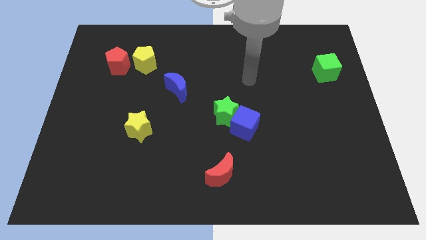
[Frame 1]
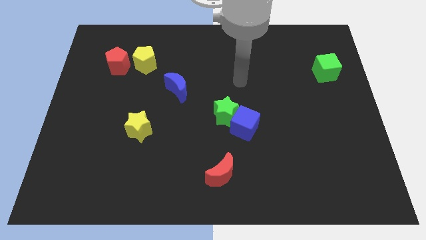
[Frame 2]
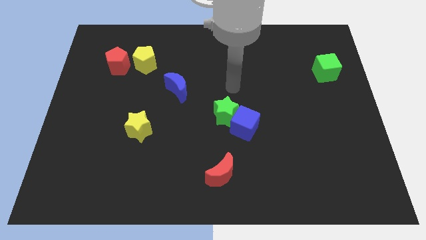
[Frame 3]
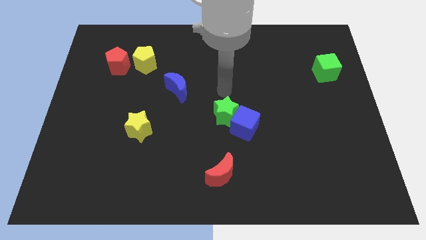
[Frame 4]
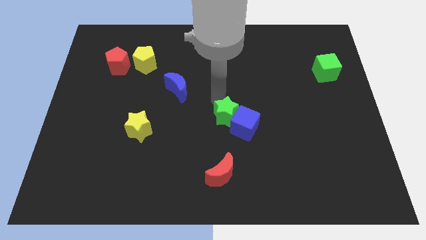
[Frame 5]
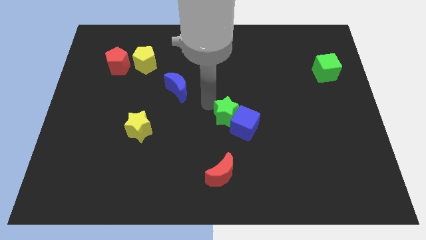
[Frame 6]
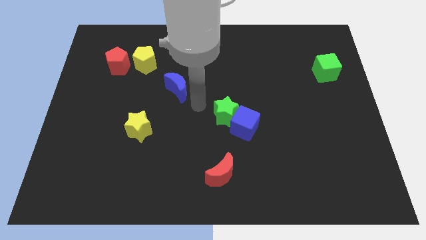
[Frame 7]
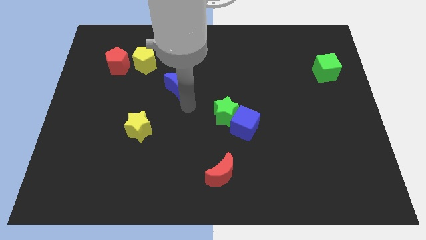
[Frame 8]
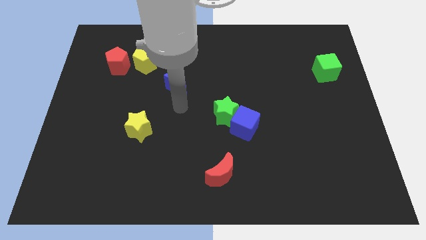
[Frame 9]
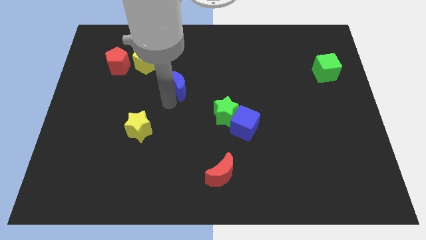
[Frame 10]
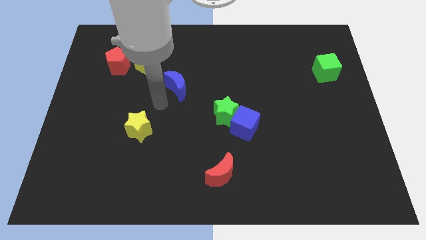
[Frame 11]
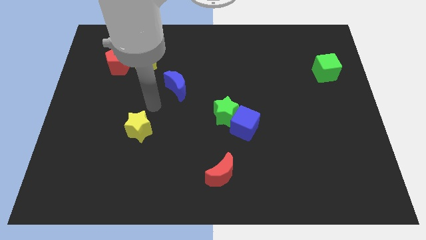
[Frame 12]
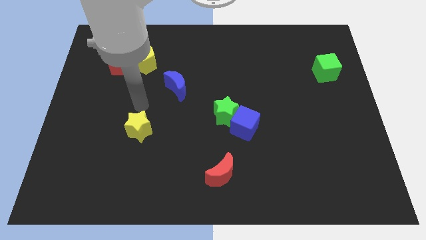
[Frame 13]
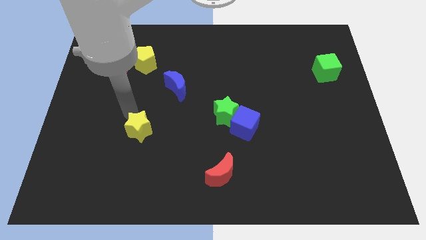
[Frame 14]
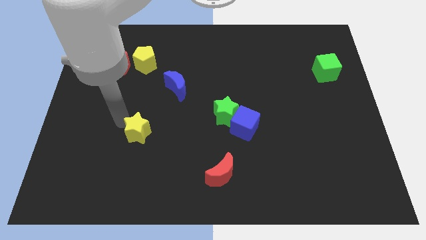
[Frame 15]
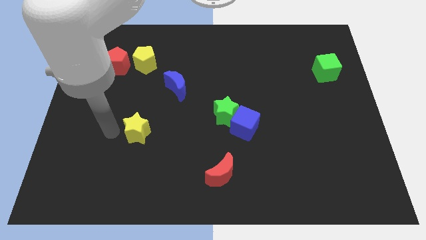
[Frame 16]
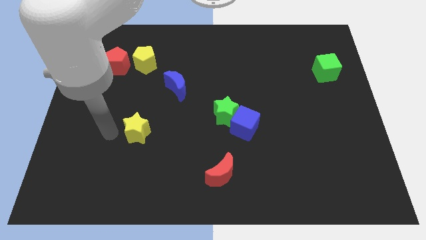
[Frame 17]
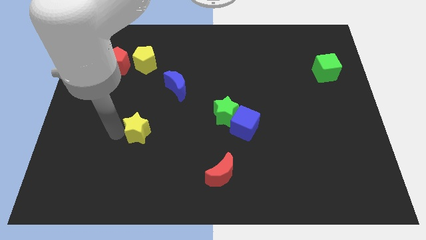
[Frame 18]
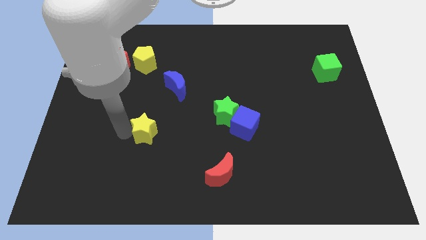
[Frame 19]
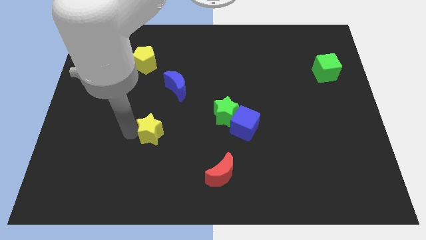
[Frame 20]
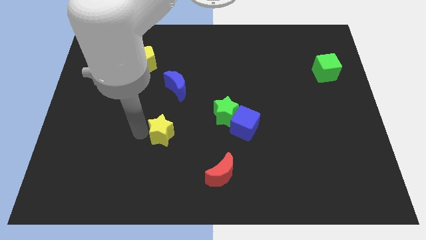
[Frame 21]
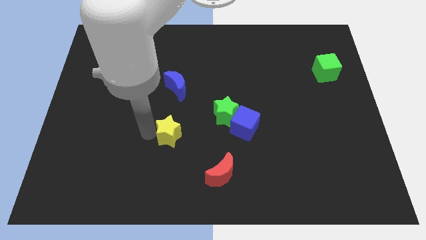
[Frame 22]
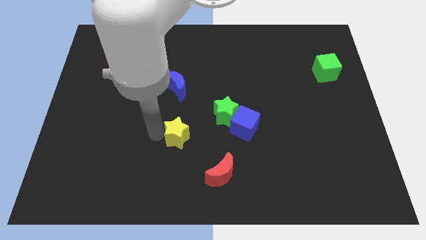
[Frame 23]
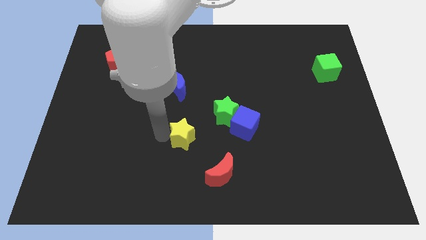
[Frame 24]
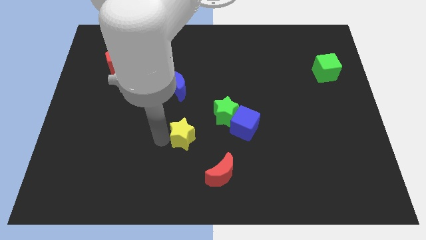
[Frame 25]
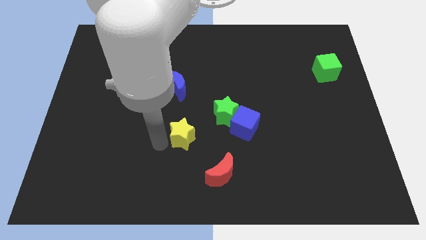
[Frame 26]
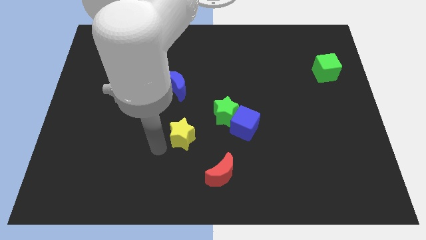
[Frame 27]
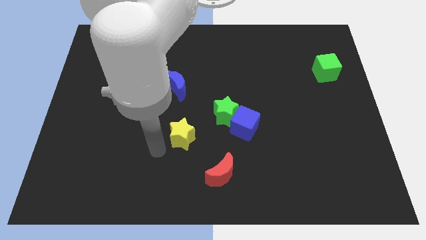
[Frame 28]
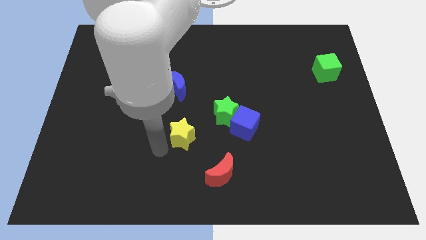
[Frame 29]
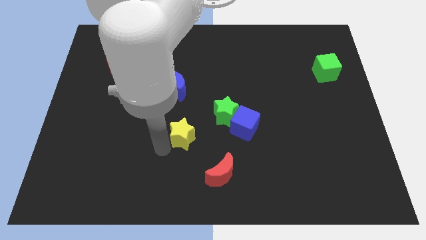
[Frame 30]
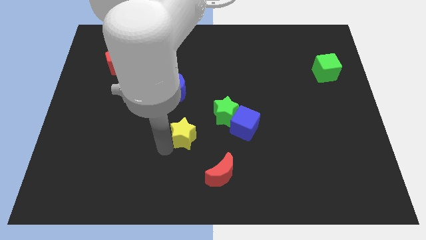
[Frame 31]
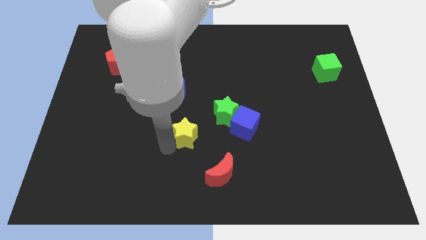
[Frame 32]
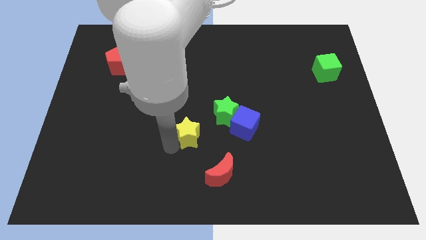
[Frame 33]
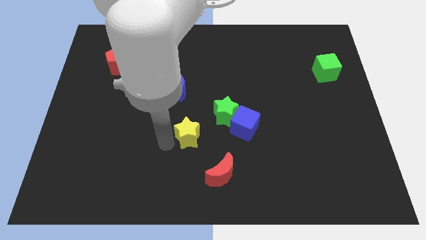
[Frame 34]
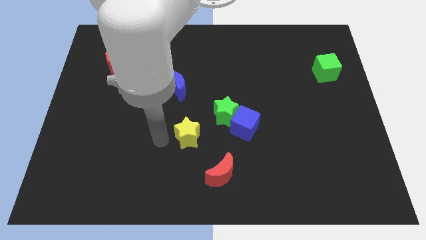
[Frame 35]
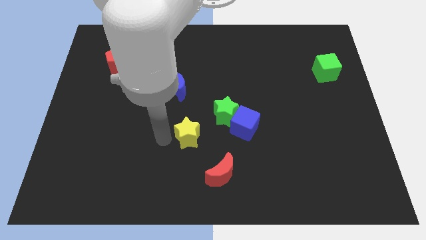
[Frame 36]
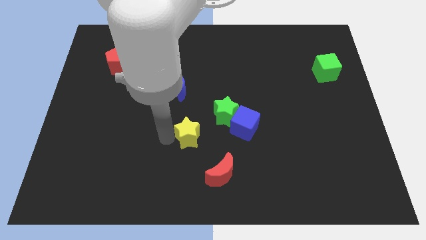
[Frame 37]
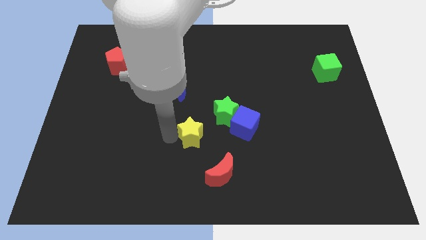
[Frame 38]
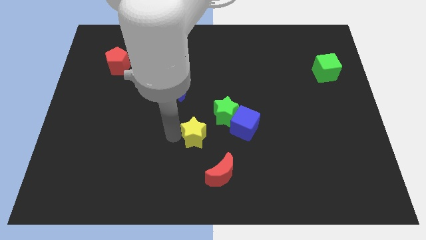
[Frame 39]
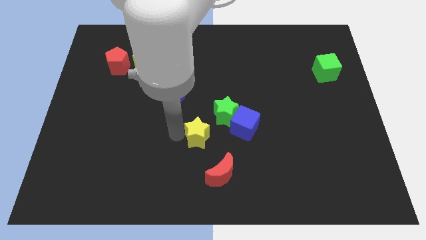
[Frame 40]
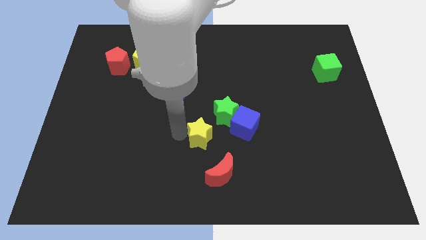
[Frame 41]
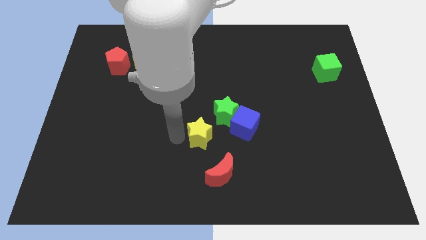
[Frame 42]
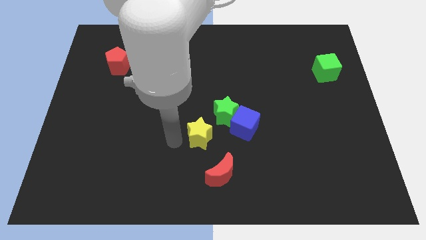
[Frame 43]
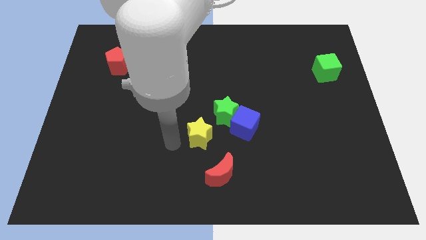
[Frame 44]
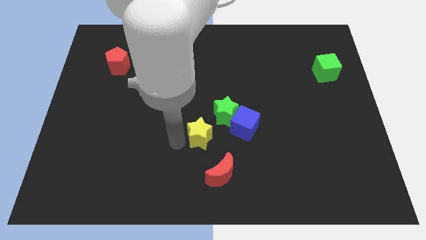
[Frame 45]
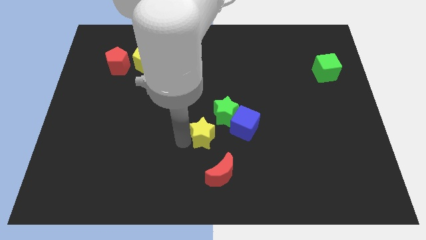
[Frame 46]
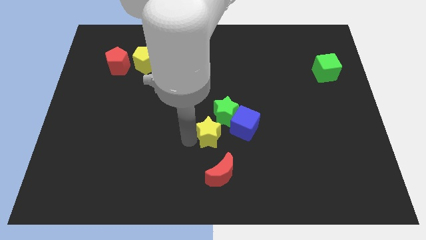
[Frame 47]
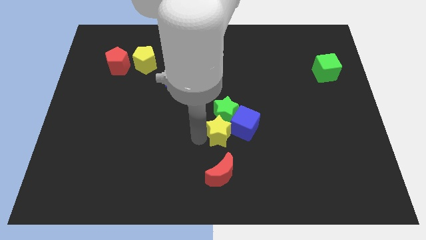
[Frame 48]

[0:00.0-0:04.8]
push the yellow star close to the blue cube

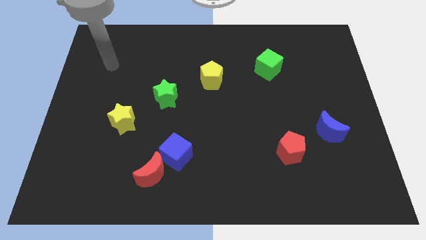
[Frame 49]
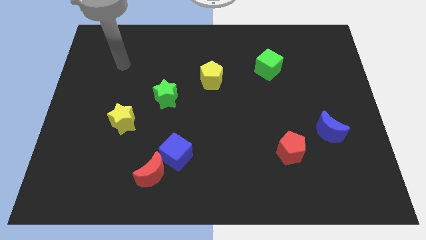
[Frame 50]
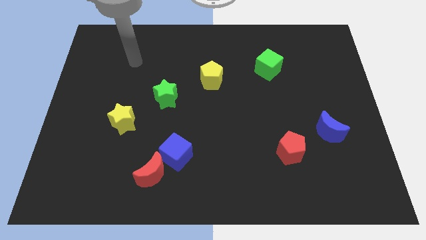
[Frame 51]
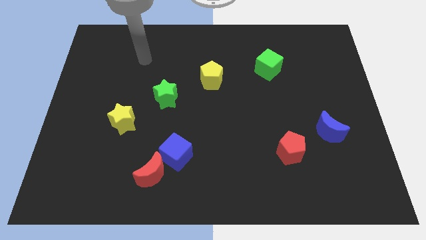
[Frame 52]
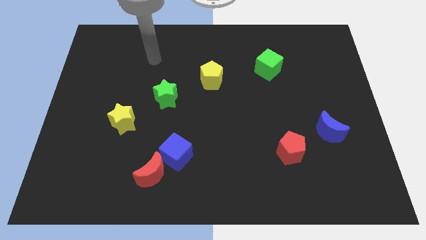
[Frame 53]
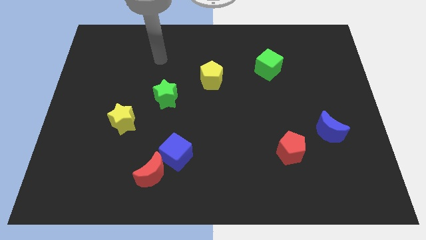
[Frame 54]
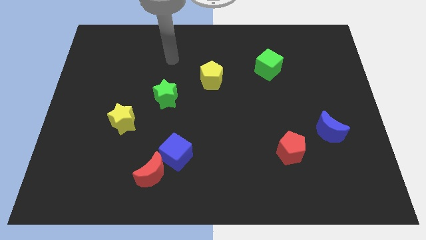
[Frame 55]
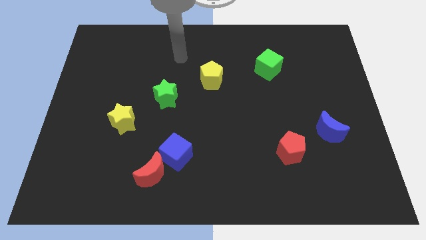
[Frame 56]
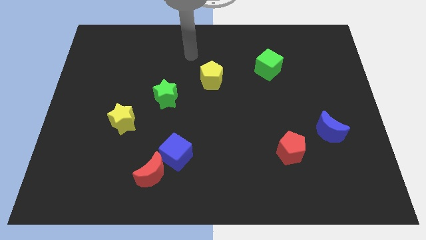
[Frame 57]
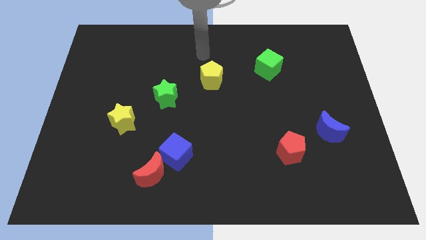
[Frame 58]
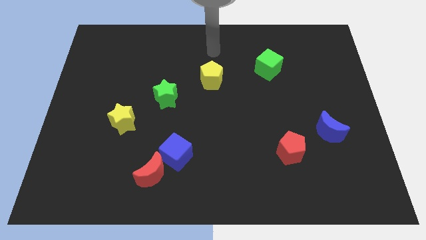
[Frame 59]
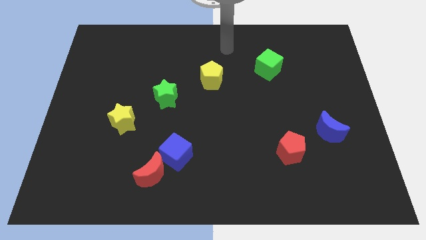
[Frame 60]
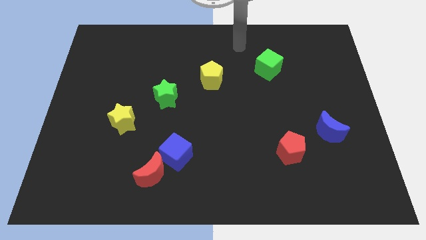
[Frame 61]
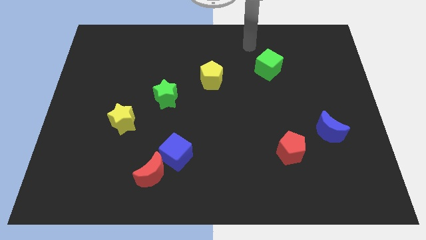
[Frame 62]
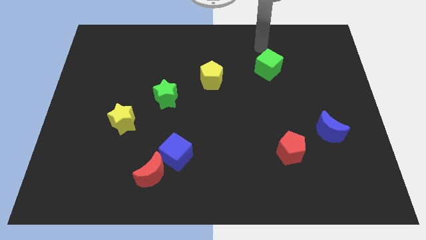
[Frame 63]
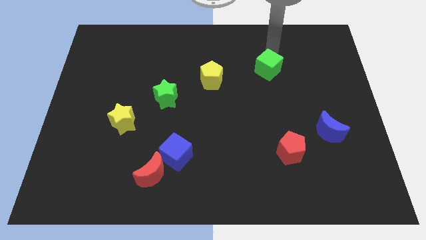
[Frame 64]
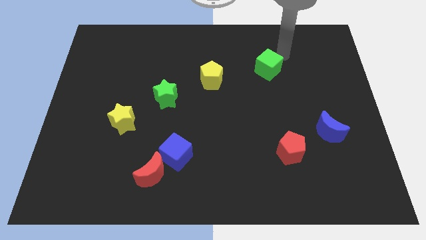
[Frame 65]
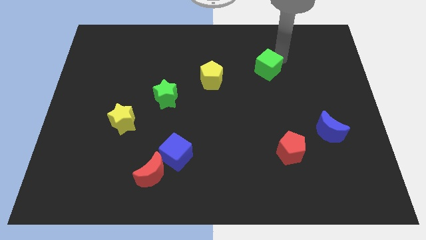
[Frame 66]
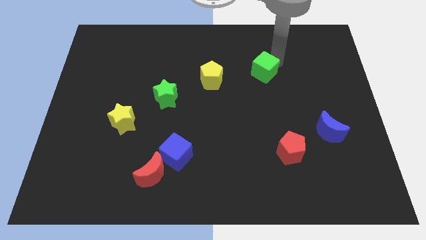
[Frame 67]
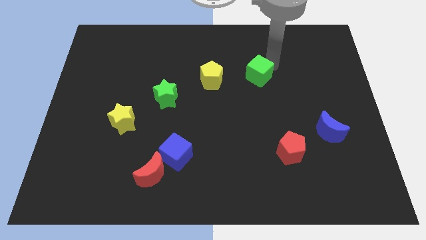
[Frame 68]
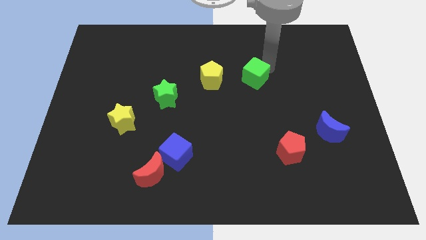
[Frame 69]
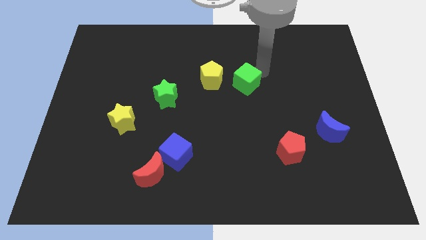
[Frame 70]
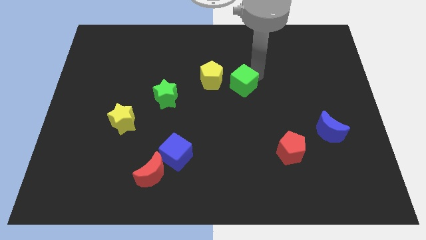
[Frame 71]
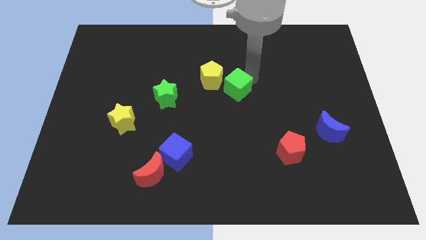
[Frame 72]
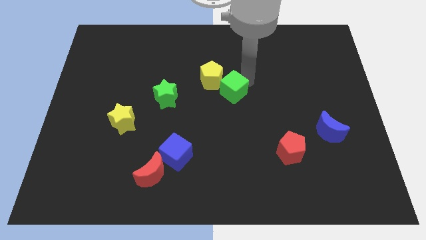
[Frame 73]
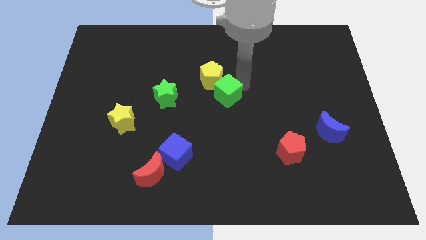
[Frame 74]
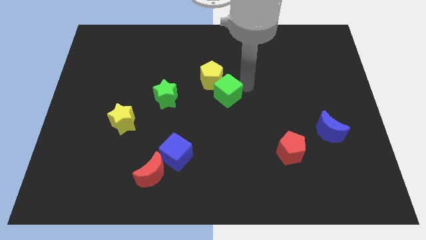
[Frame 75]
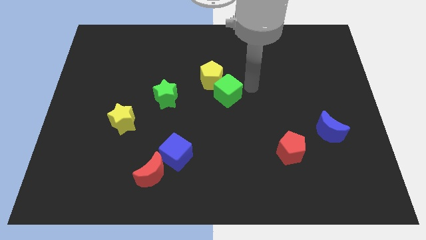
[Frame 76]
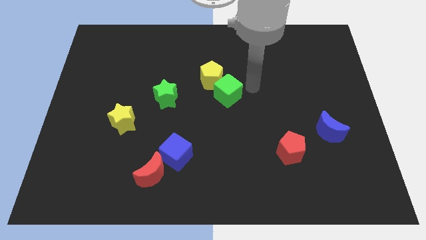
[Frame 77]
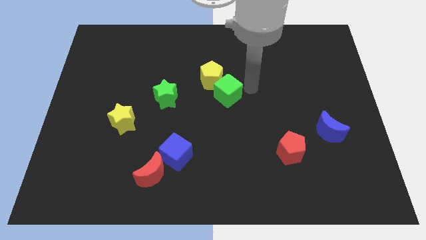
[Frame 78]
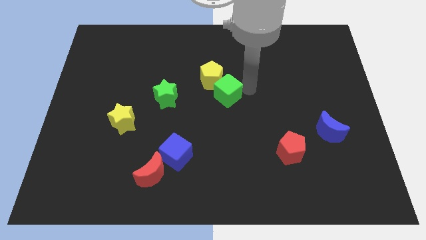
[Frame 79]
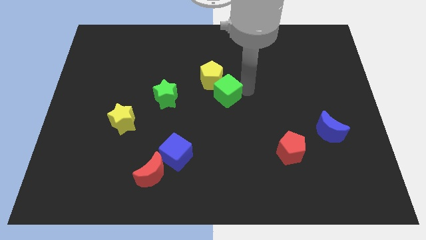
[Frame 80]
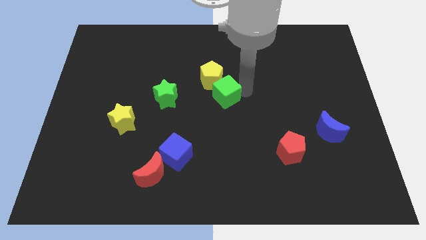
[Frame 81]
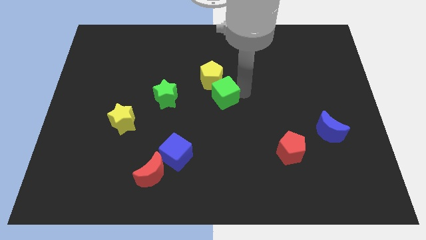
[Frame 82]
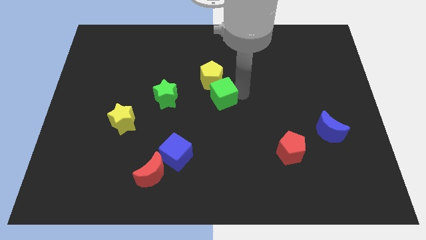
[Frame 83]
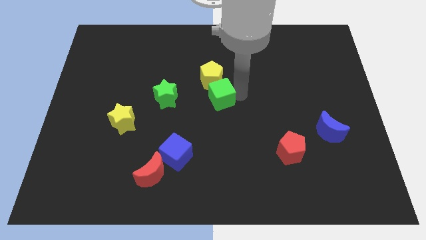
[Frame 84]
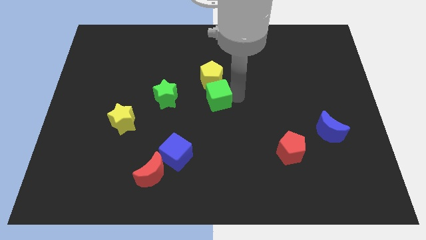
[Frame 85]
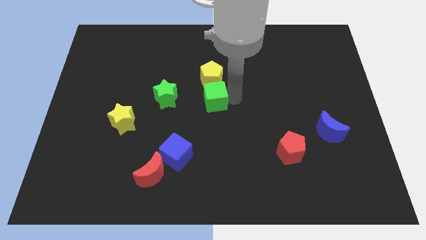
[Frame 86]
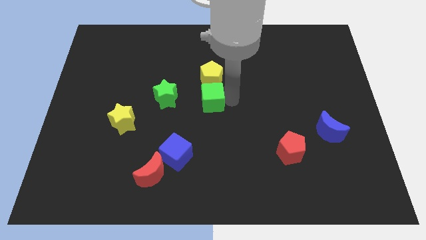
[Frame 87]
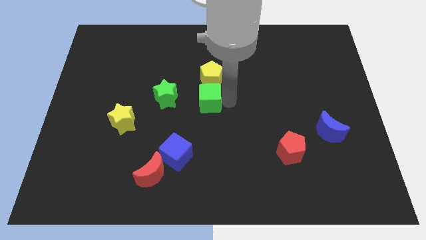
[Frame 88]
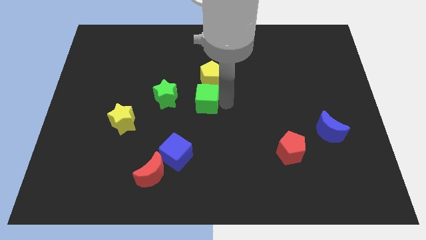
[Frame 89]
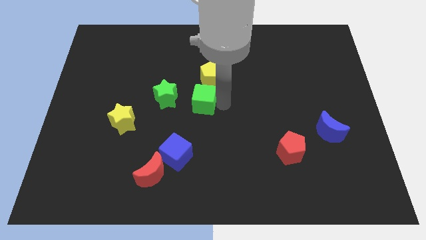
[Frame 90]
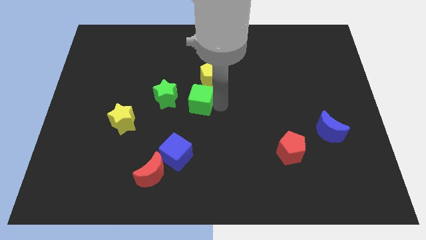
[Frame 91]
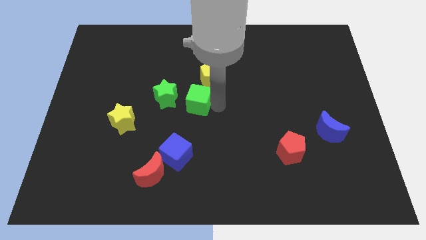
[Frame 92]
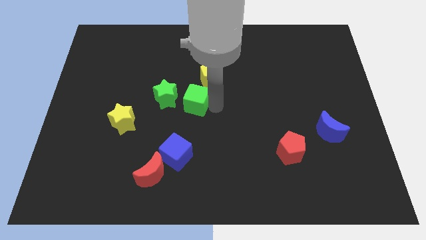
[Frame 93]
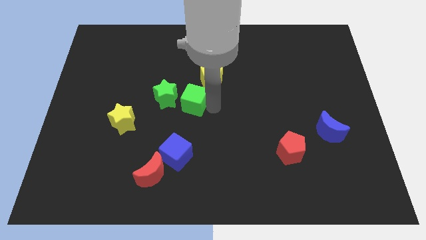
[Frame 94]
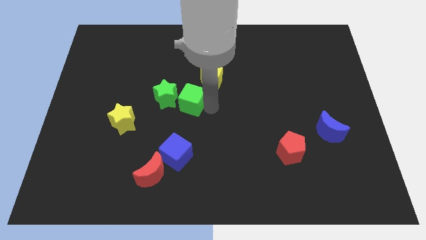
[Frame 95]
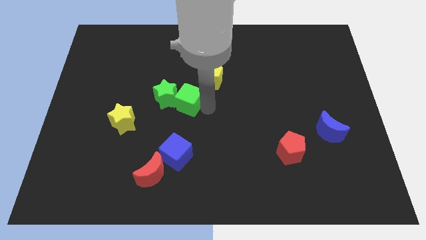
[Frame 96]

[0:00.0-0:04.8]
push the green cube towards the green star
